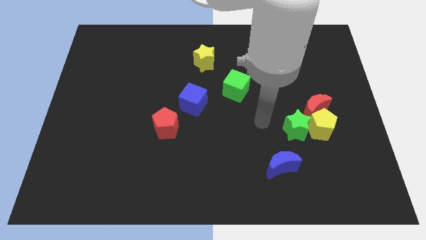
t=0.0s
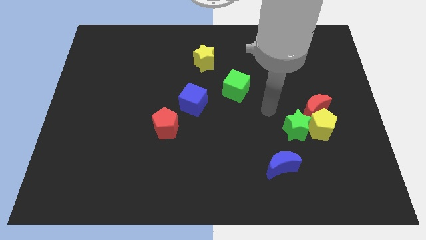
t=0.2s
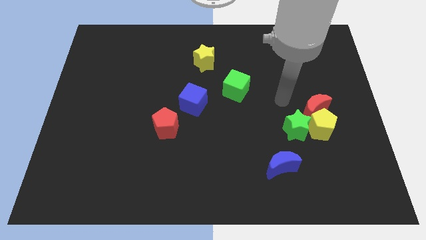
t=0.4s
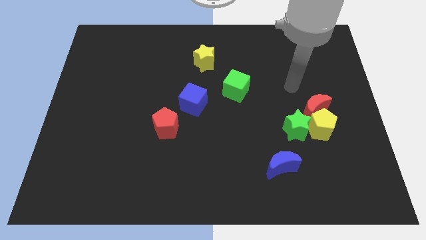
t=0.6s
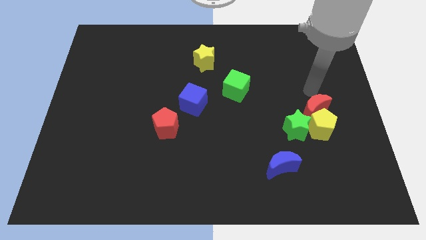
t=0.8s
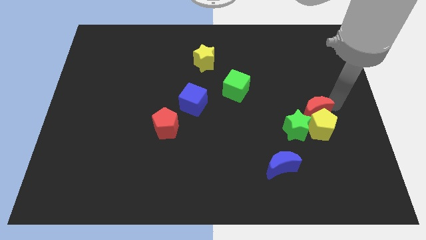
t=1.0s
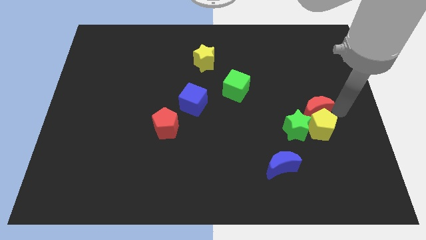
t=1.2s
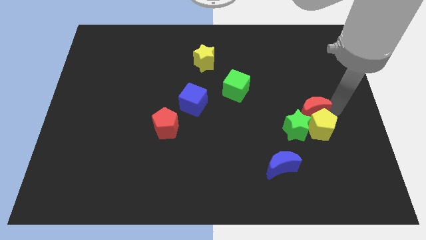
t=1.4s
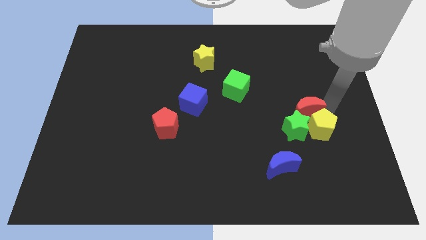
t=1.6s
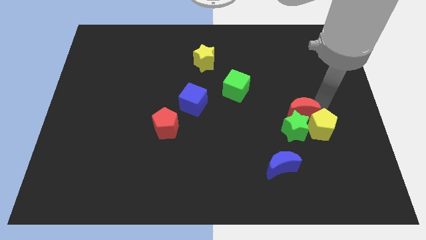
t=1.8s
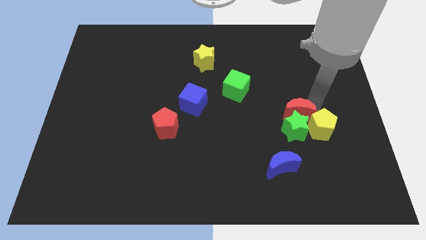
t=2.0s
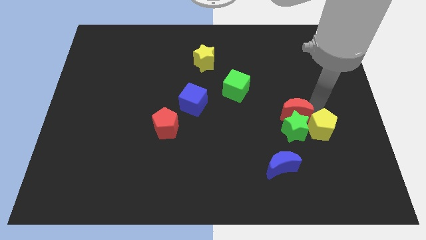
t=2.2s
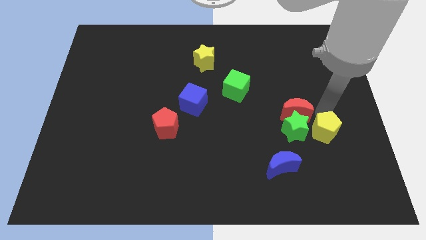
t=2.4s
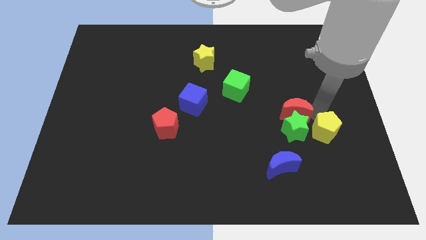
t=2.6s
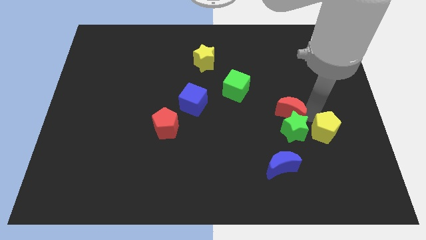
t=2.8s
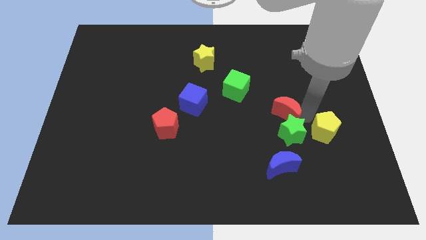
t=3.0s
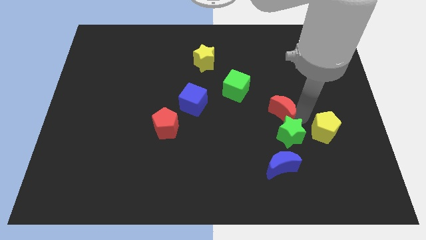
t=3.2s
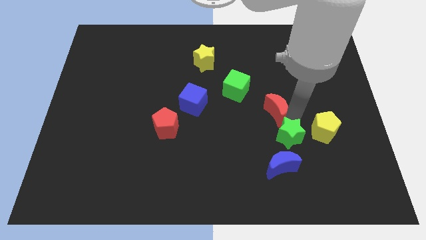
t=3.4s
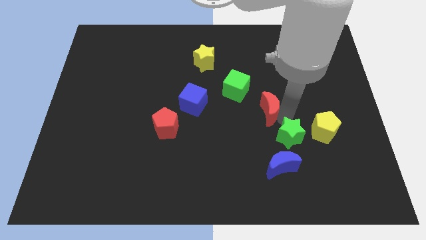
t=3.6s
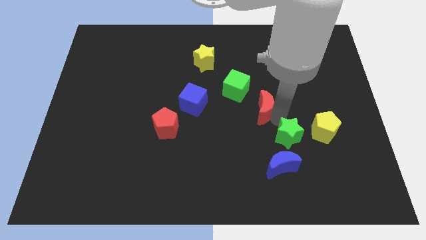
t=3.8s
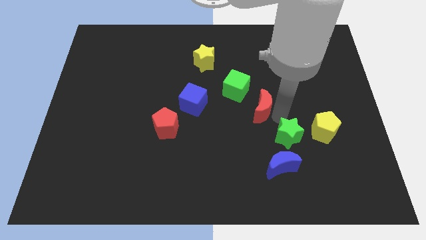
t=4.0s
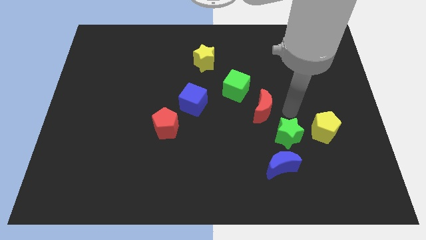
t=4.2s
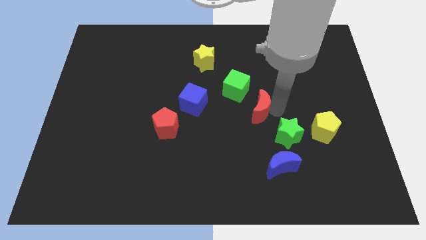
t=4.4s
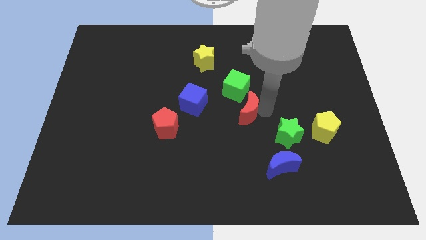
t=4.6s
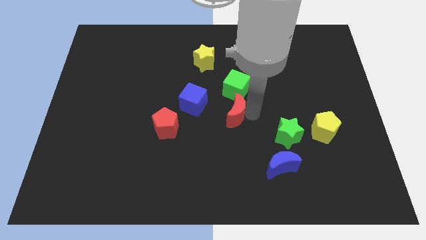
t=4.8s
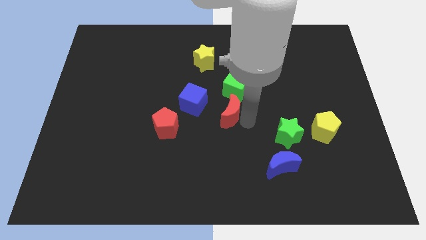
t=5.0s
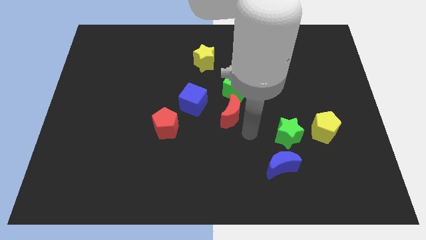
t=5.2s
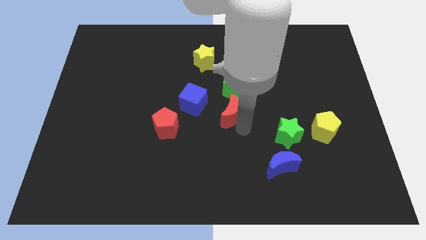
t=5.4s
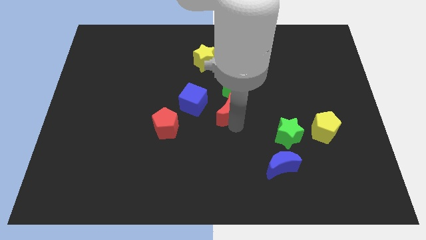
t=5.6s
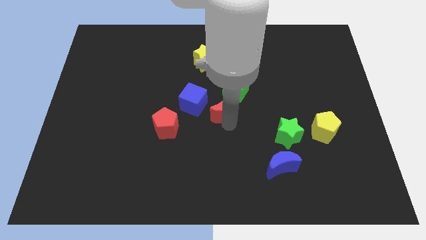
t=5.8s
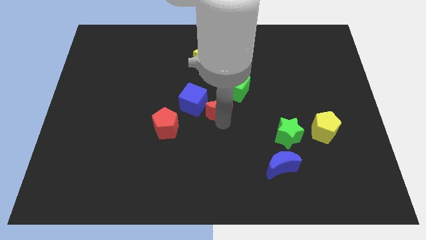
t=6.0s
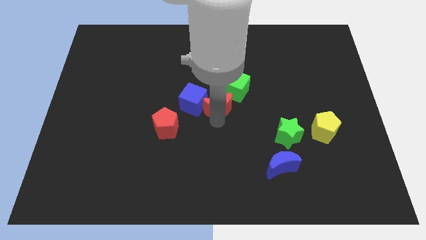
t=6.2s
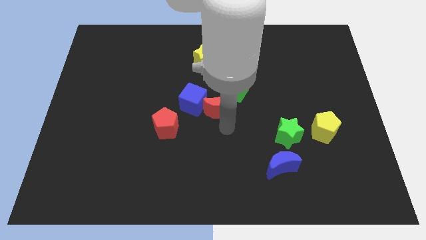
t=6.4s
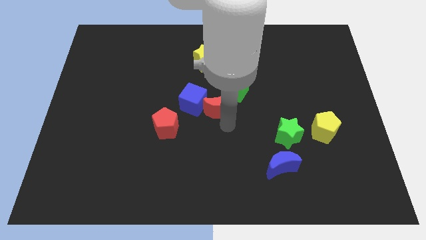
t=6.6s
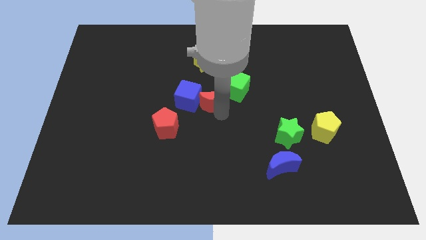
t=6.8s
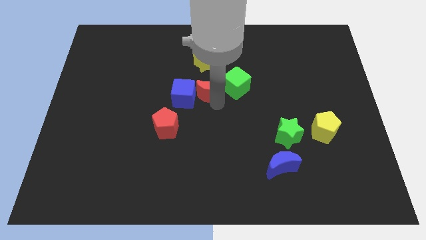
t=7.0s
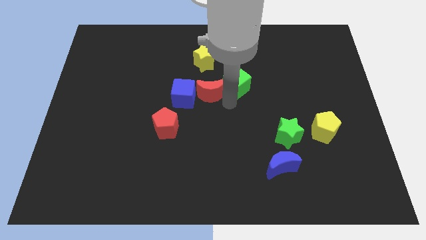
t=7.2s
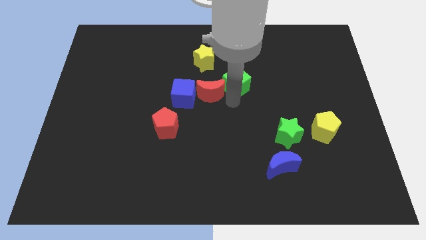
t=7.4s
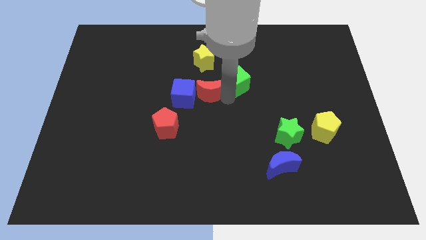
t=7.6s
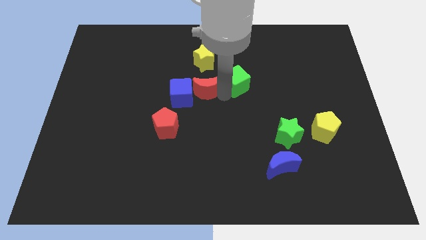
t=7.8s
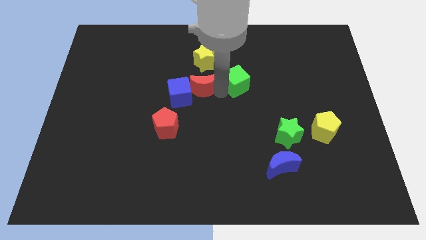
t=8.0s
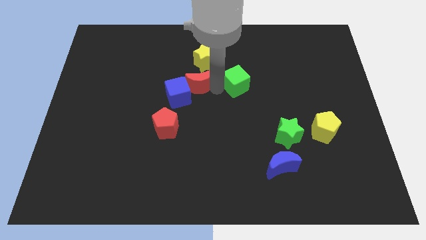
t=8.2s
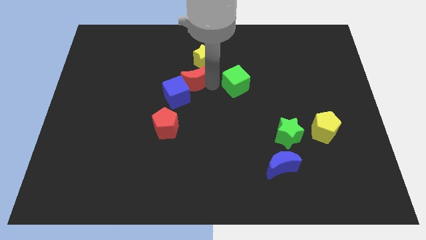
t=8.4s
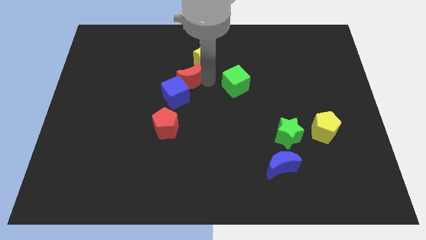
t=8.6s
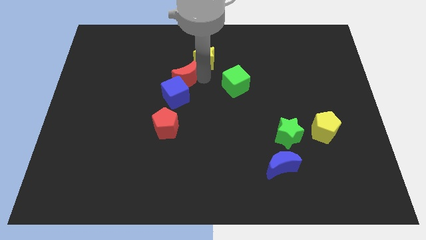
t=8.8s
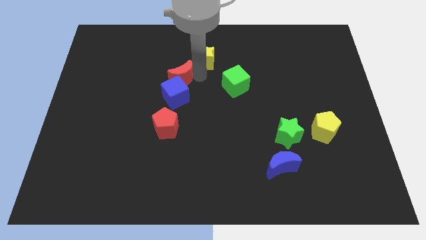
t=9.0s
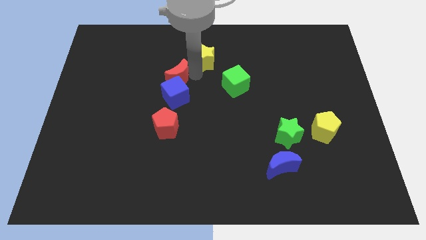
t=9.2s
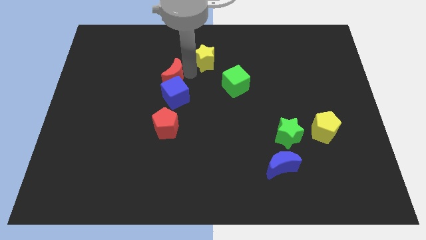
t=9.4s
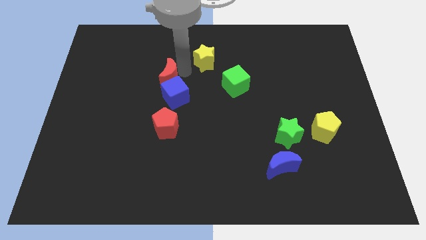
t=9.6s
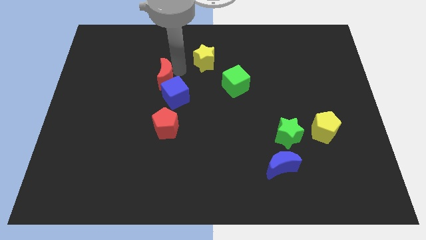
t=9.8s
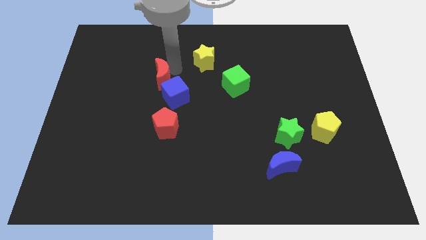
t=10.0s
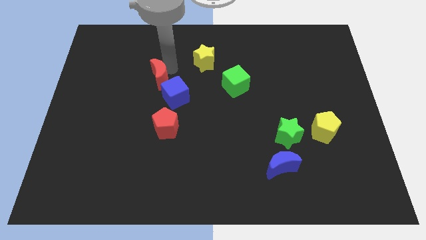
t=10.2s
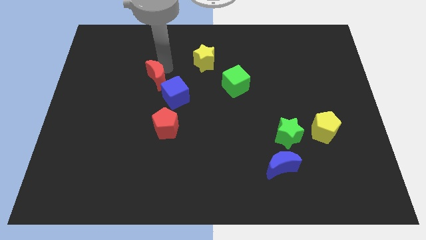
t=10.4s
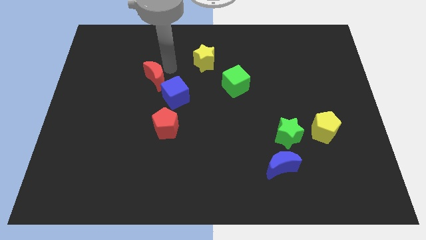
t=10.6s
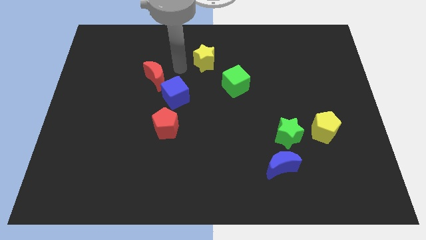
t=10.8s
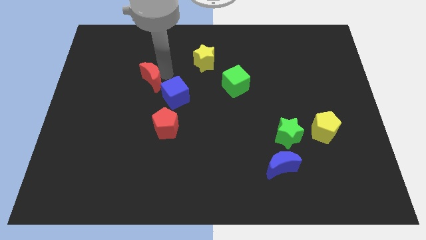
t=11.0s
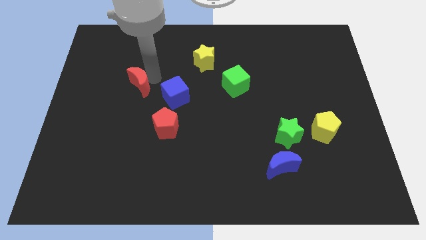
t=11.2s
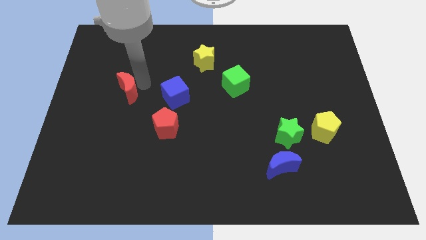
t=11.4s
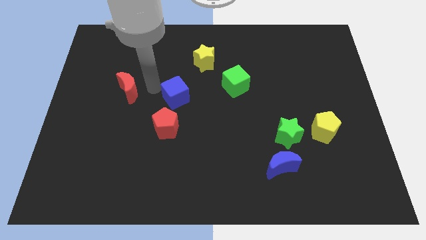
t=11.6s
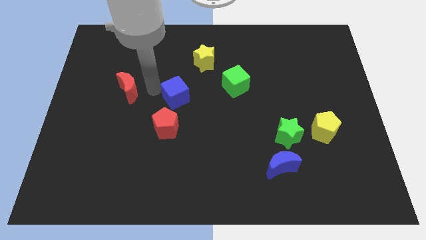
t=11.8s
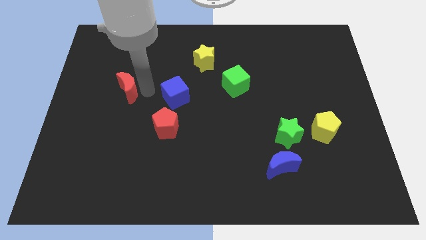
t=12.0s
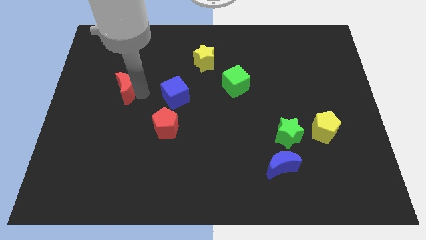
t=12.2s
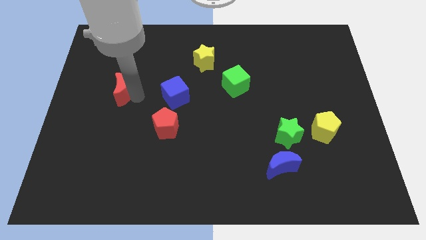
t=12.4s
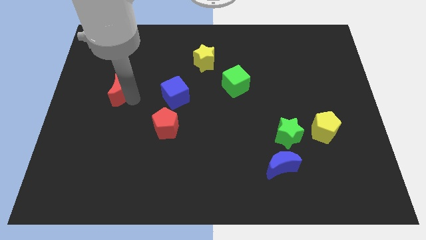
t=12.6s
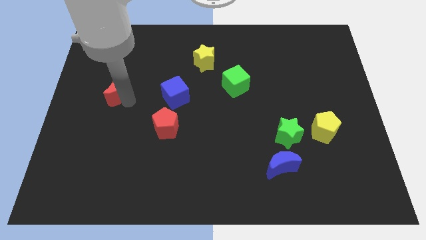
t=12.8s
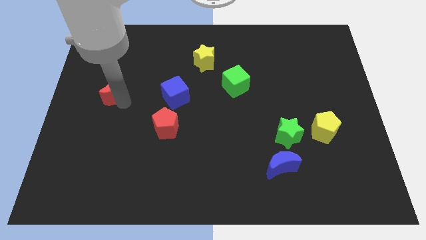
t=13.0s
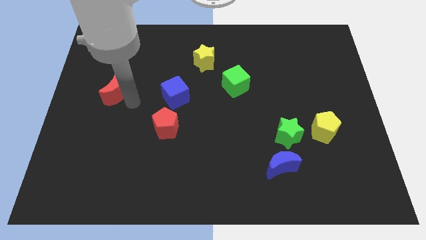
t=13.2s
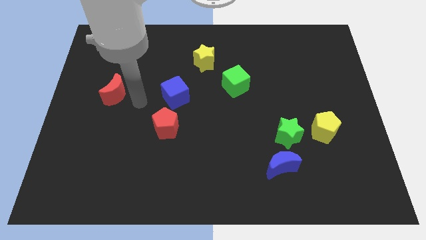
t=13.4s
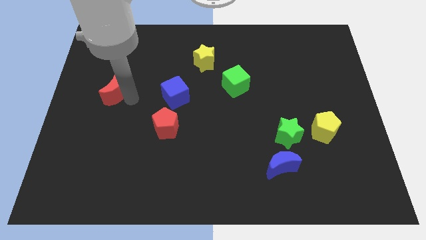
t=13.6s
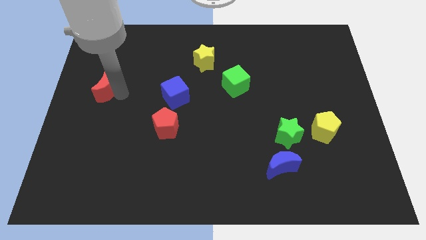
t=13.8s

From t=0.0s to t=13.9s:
put the red moon to the center left
